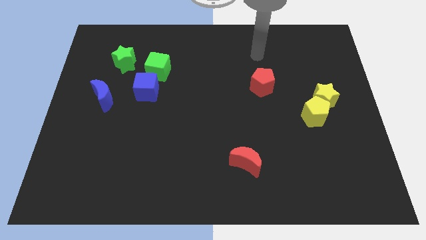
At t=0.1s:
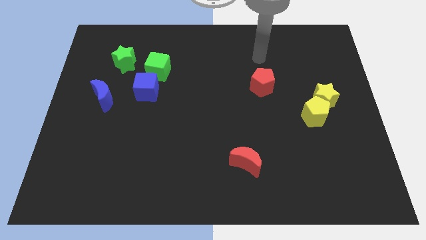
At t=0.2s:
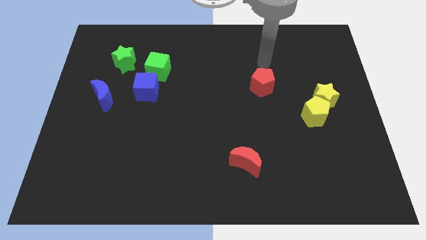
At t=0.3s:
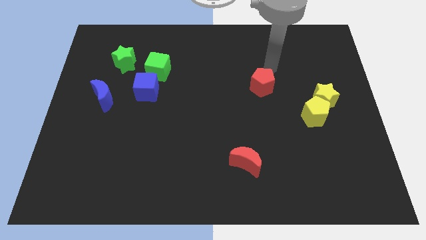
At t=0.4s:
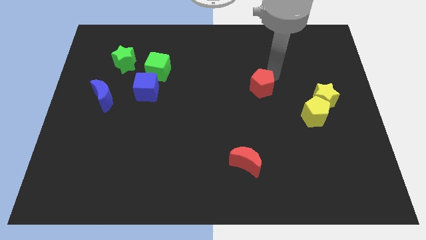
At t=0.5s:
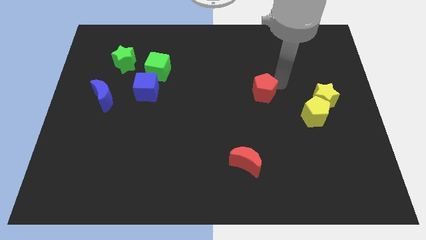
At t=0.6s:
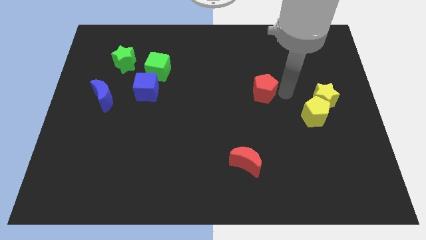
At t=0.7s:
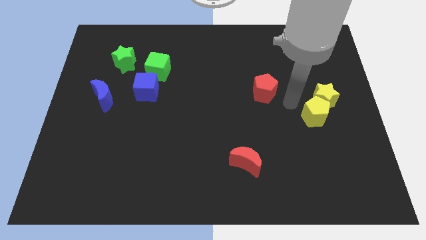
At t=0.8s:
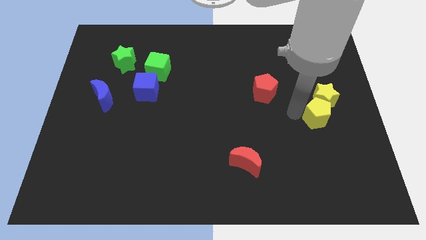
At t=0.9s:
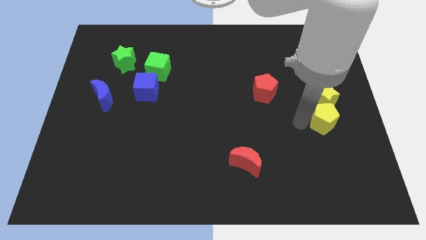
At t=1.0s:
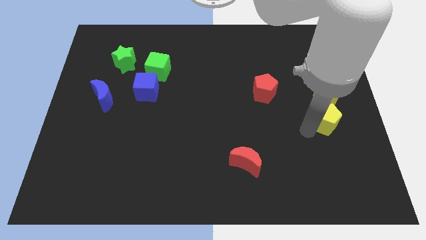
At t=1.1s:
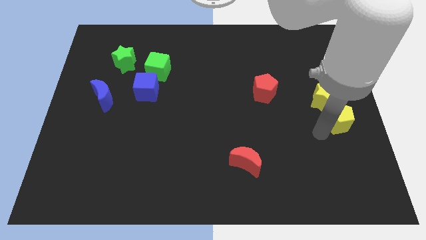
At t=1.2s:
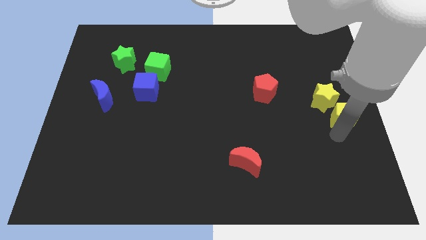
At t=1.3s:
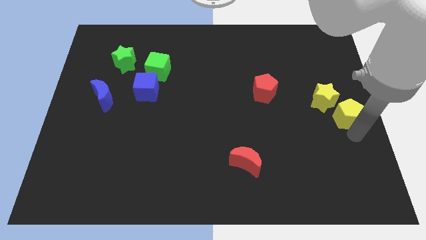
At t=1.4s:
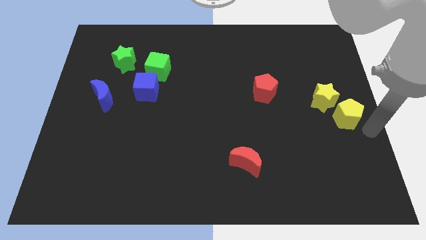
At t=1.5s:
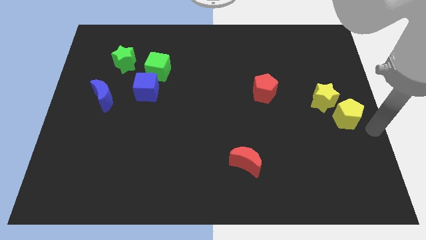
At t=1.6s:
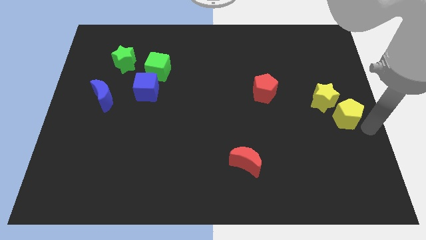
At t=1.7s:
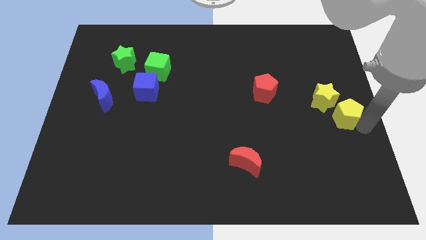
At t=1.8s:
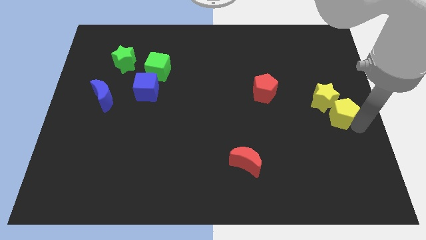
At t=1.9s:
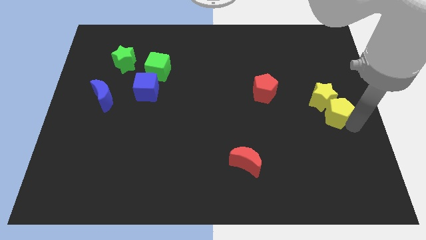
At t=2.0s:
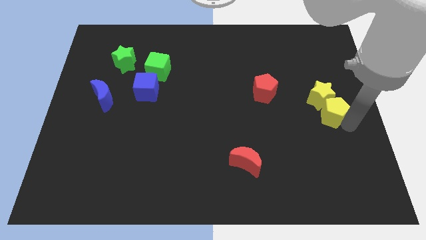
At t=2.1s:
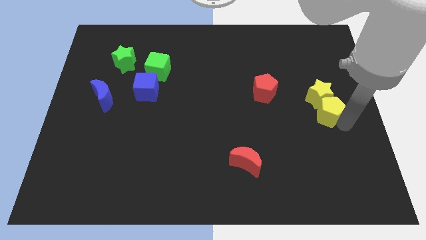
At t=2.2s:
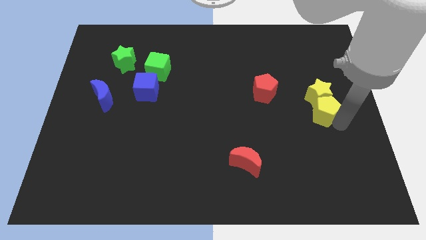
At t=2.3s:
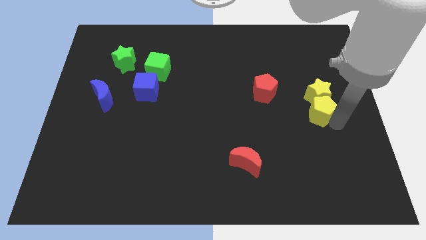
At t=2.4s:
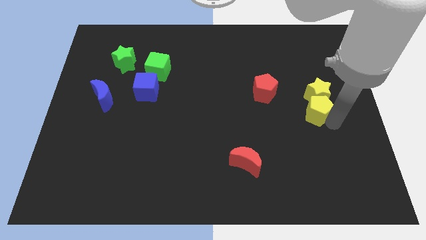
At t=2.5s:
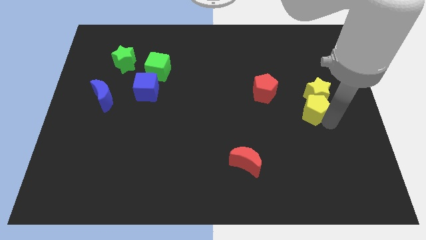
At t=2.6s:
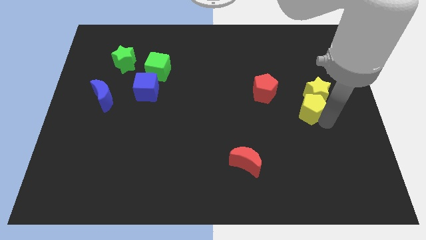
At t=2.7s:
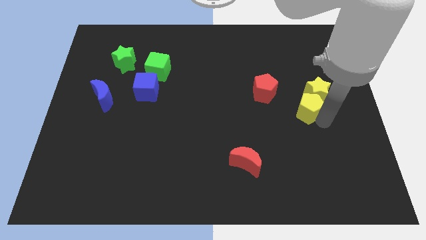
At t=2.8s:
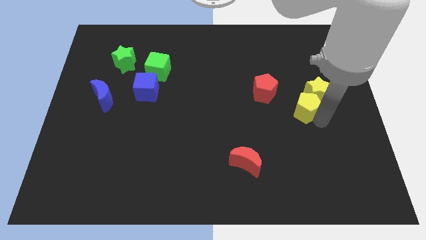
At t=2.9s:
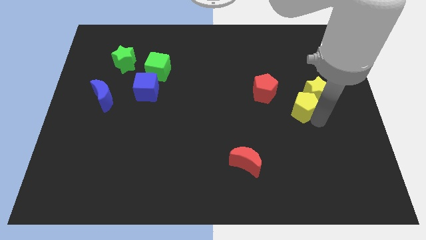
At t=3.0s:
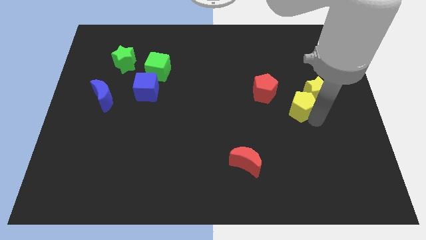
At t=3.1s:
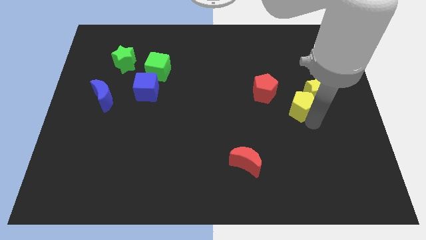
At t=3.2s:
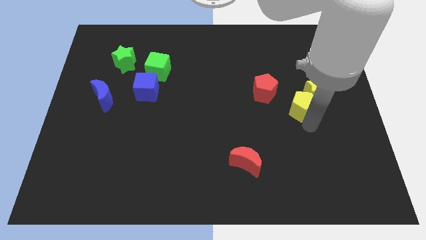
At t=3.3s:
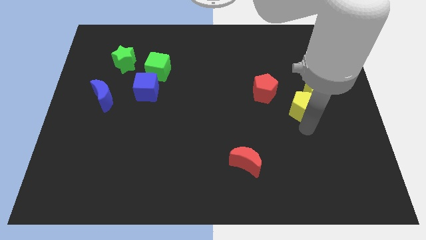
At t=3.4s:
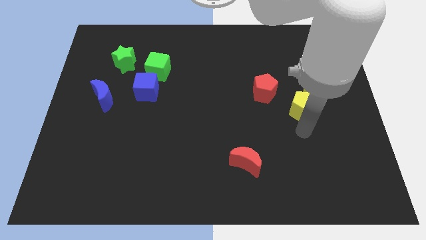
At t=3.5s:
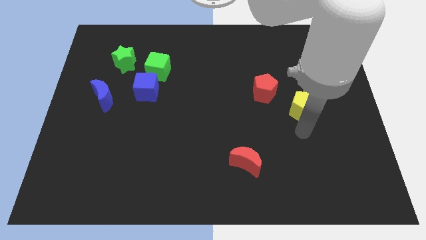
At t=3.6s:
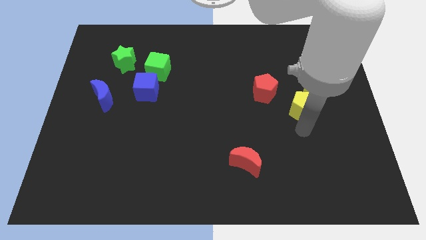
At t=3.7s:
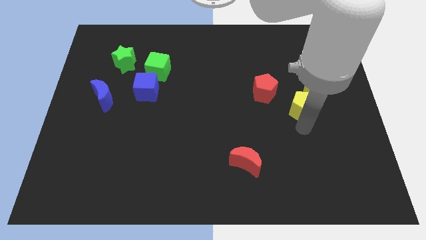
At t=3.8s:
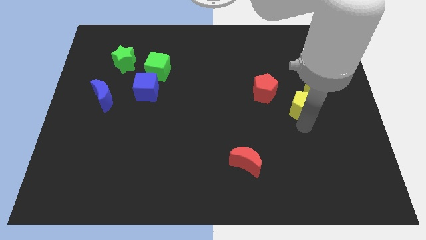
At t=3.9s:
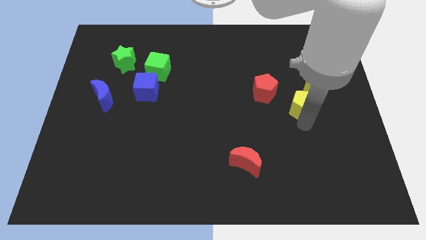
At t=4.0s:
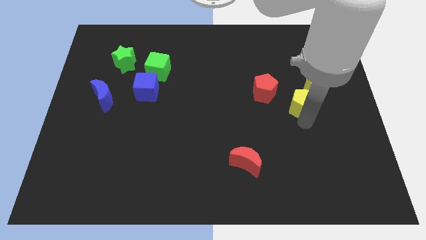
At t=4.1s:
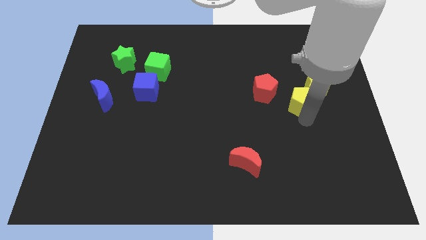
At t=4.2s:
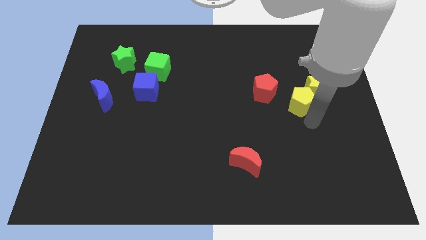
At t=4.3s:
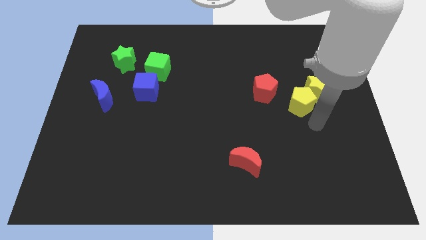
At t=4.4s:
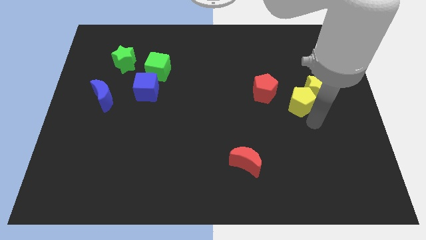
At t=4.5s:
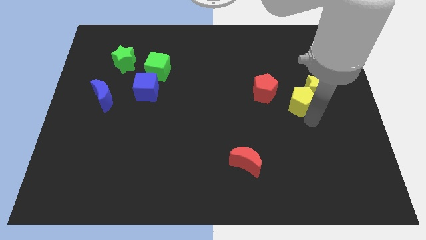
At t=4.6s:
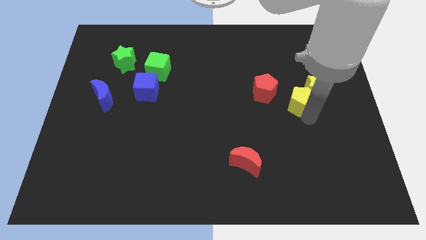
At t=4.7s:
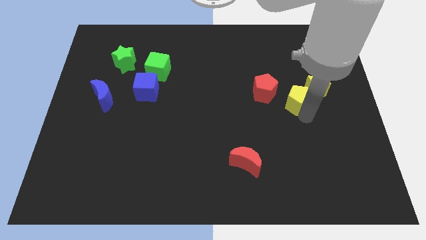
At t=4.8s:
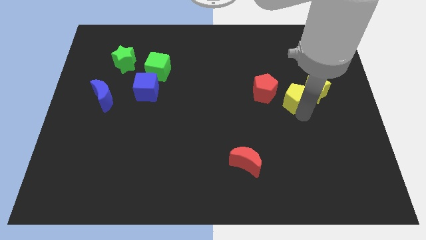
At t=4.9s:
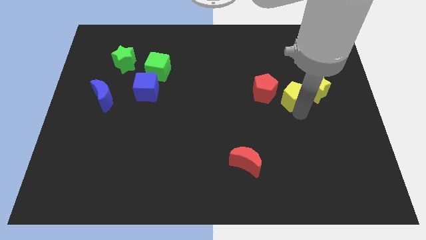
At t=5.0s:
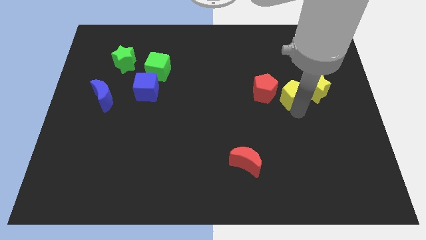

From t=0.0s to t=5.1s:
slightly move the yellow pentagon up and left diagonally

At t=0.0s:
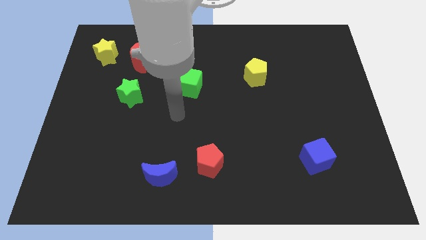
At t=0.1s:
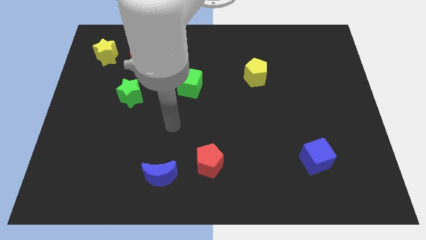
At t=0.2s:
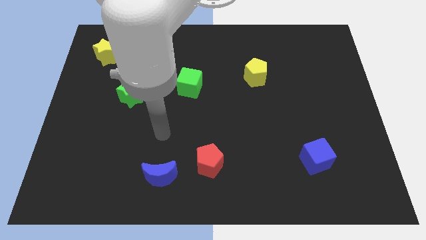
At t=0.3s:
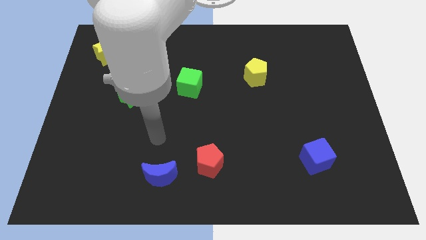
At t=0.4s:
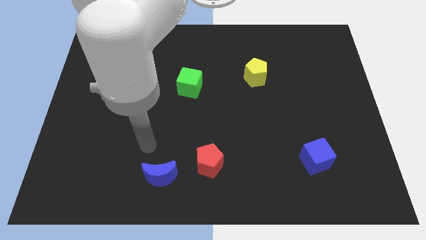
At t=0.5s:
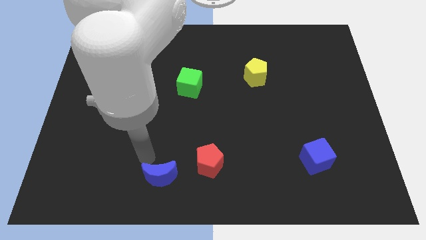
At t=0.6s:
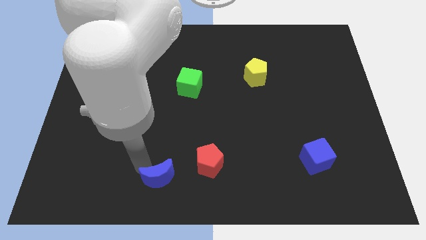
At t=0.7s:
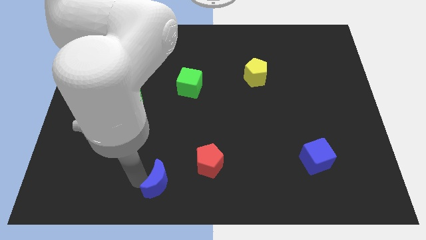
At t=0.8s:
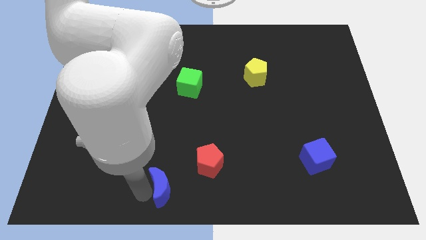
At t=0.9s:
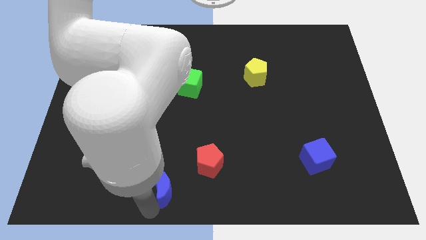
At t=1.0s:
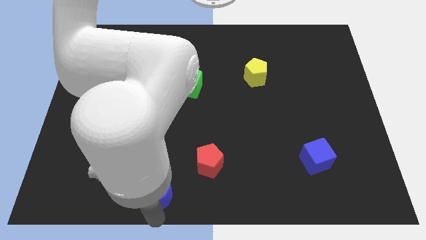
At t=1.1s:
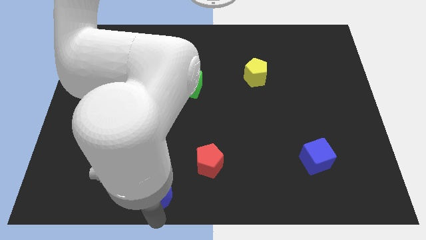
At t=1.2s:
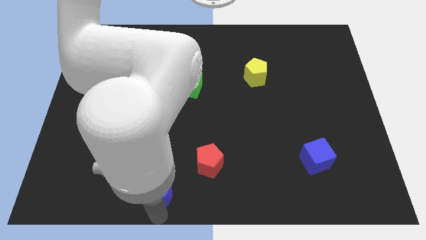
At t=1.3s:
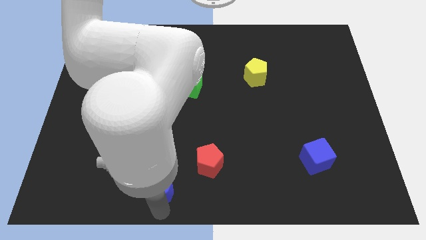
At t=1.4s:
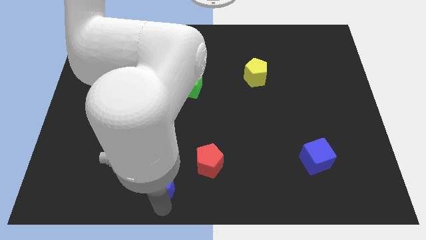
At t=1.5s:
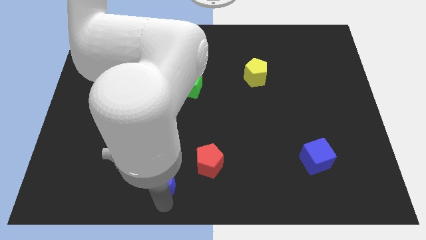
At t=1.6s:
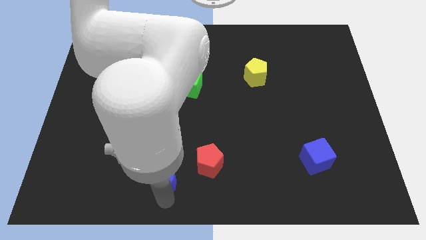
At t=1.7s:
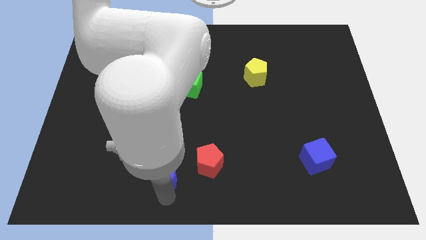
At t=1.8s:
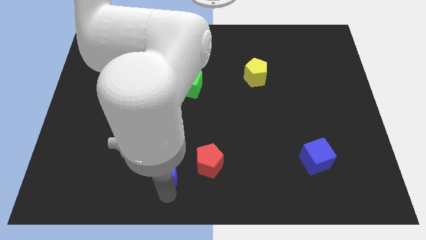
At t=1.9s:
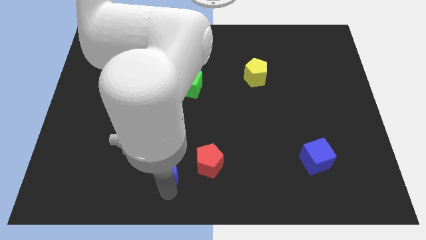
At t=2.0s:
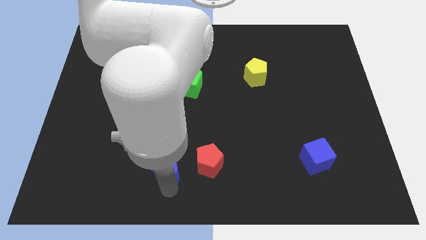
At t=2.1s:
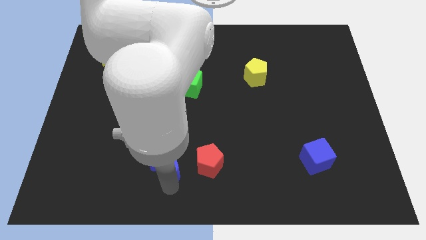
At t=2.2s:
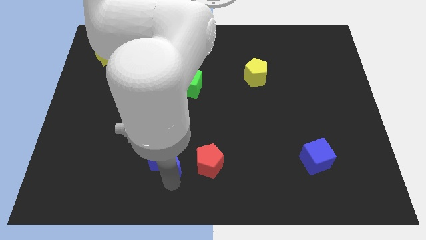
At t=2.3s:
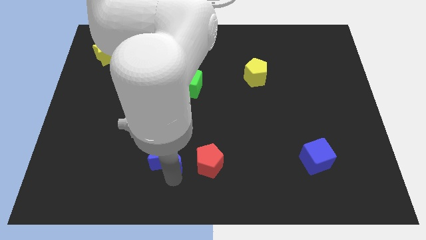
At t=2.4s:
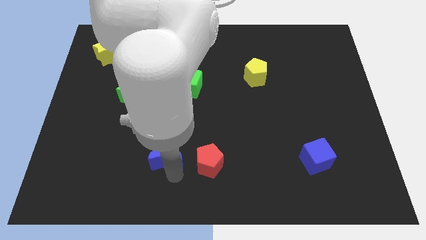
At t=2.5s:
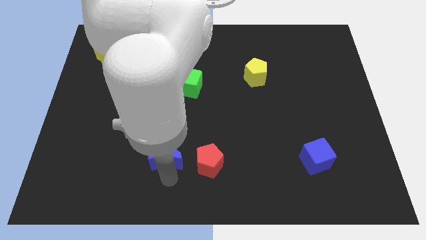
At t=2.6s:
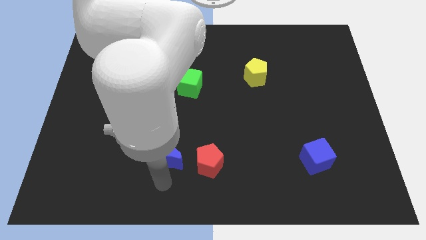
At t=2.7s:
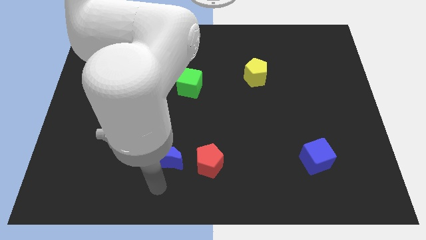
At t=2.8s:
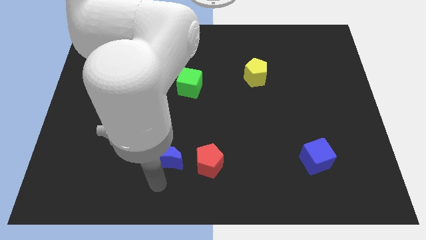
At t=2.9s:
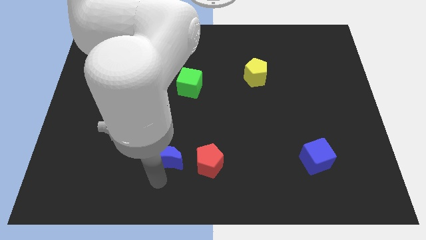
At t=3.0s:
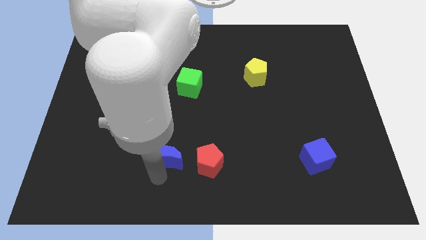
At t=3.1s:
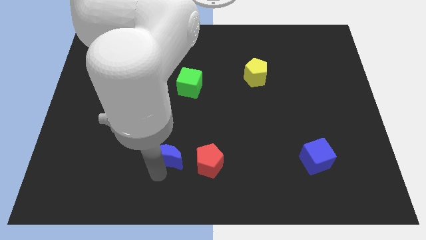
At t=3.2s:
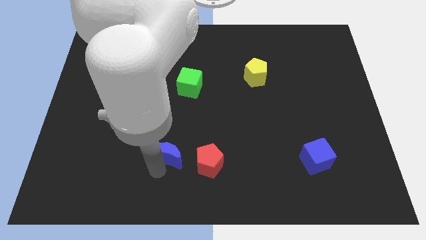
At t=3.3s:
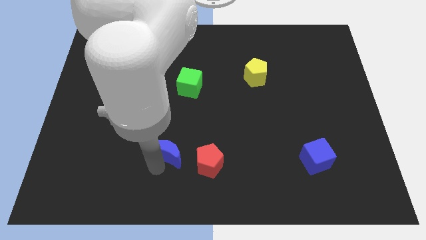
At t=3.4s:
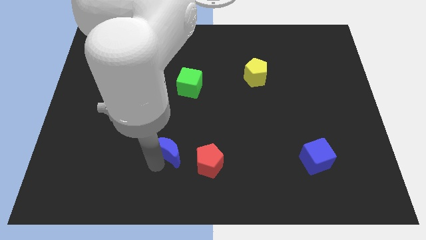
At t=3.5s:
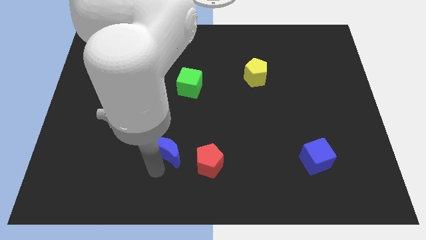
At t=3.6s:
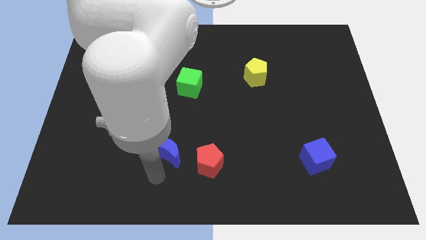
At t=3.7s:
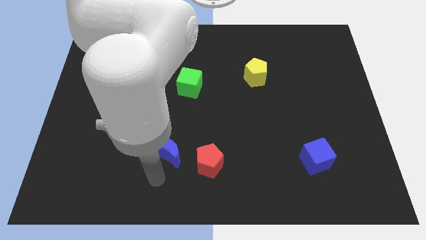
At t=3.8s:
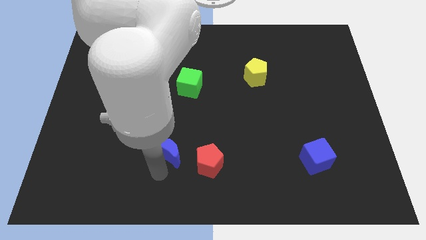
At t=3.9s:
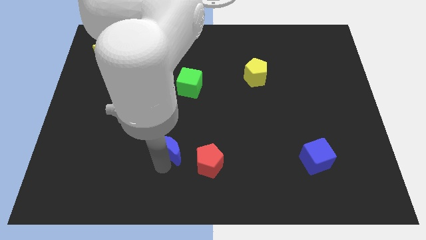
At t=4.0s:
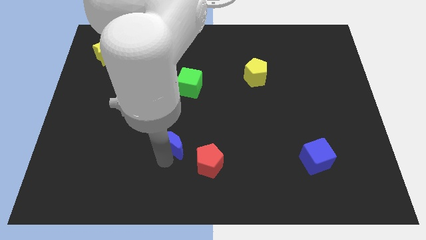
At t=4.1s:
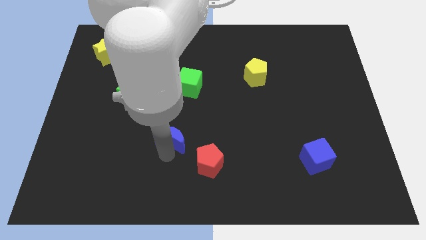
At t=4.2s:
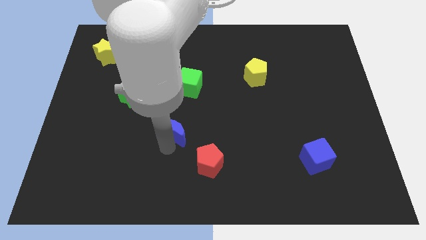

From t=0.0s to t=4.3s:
slide the blue moon up and right diagonally somewhat
